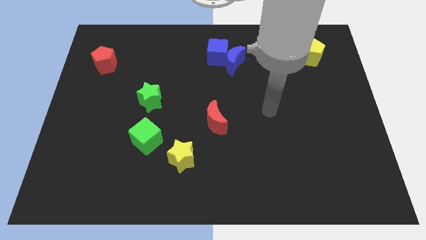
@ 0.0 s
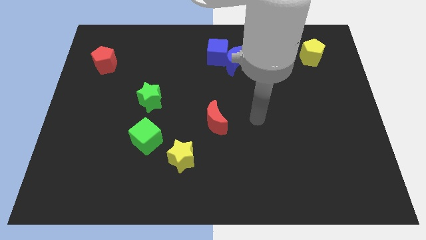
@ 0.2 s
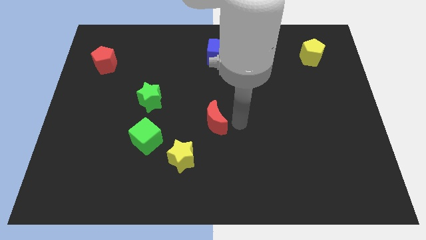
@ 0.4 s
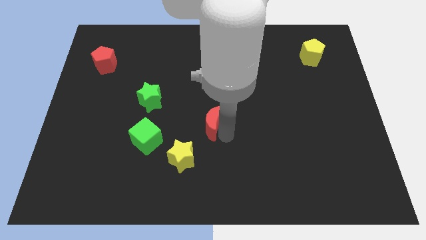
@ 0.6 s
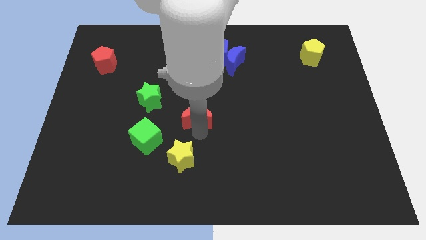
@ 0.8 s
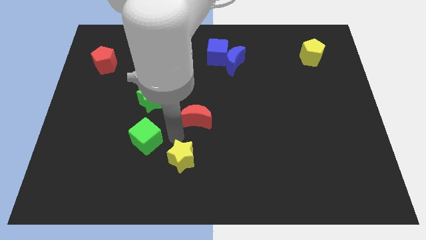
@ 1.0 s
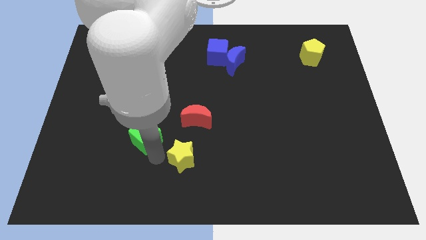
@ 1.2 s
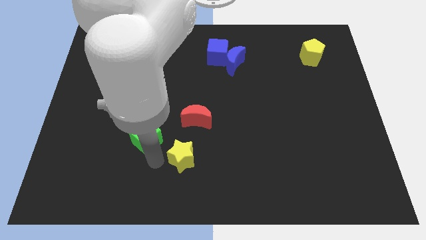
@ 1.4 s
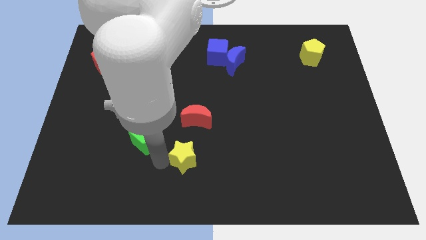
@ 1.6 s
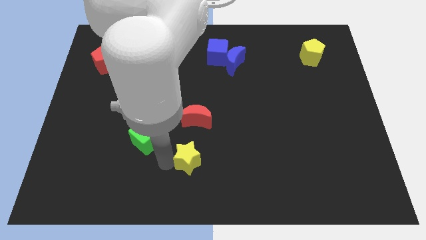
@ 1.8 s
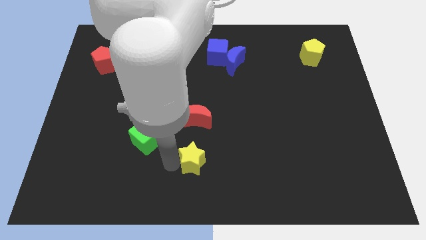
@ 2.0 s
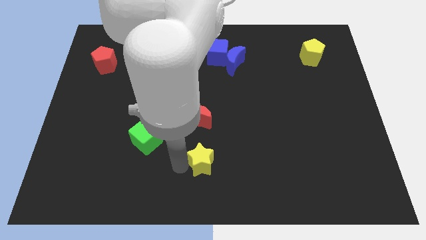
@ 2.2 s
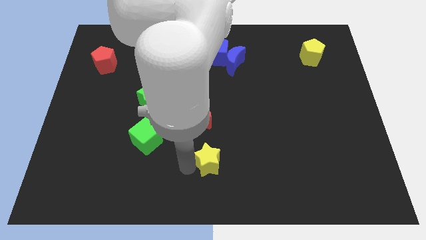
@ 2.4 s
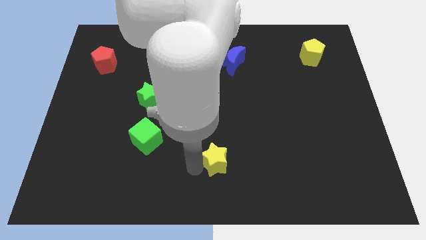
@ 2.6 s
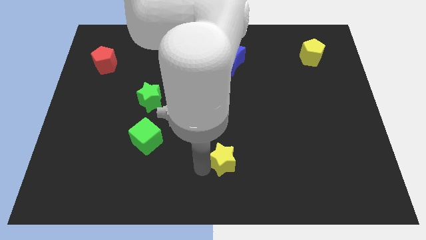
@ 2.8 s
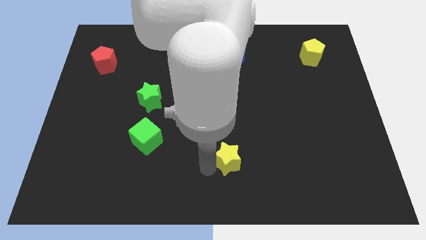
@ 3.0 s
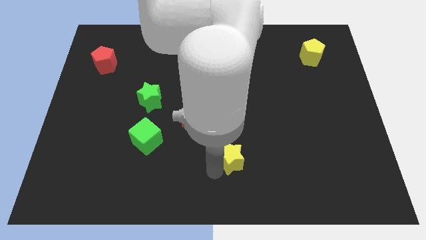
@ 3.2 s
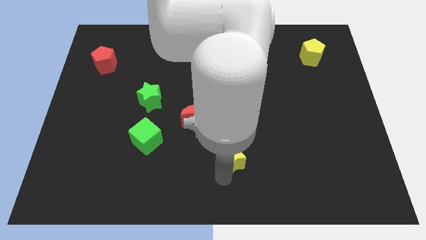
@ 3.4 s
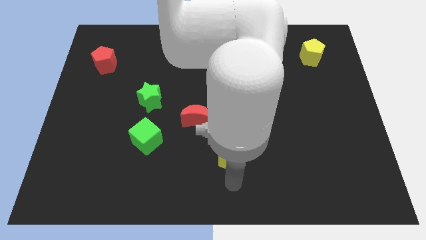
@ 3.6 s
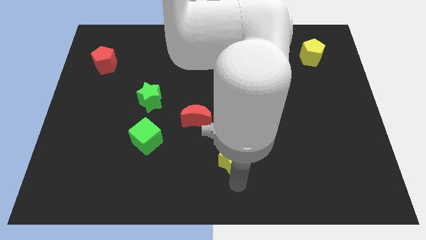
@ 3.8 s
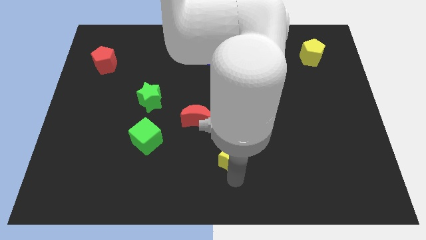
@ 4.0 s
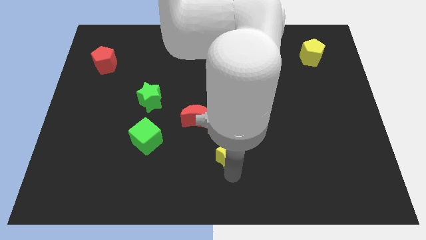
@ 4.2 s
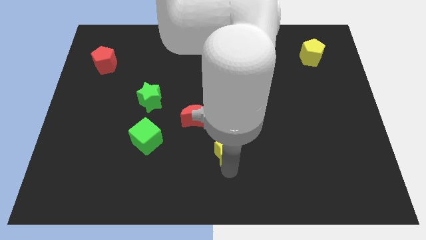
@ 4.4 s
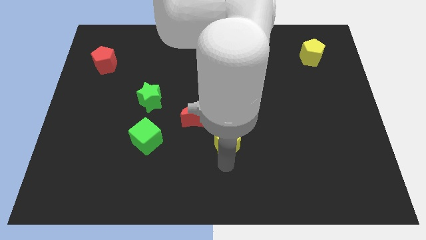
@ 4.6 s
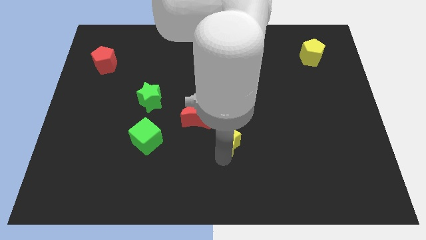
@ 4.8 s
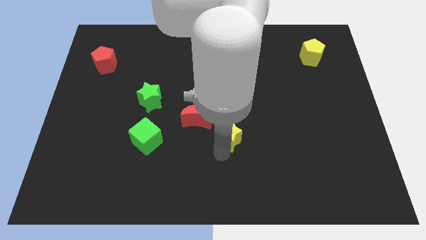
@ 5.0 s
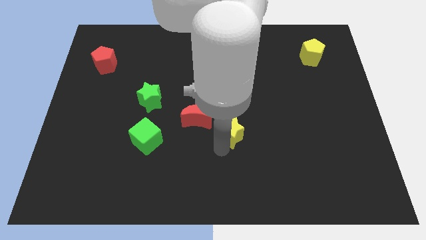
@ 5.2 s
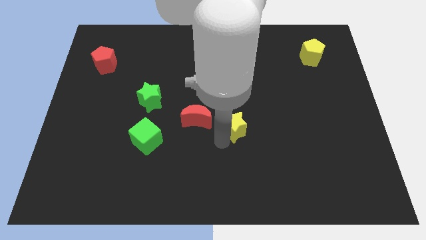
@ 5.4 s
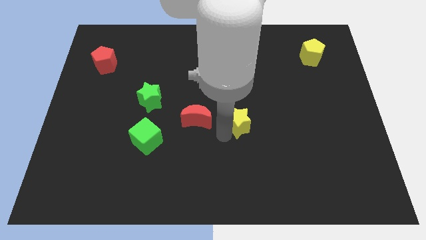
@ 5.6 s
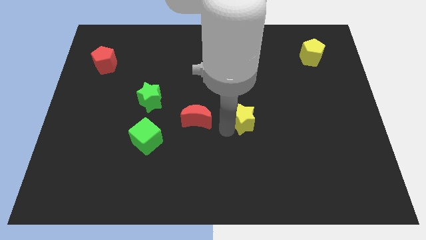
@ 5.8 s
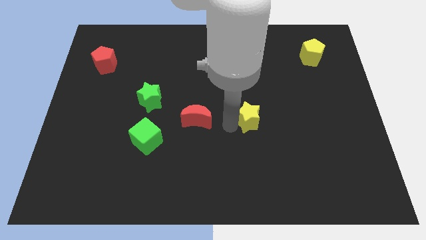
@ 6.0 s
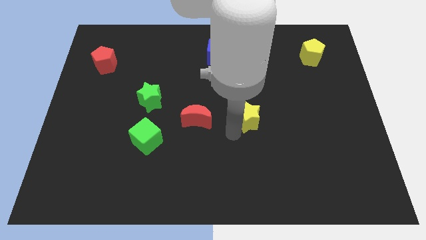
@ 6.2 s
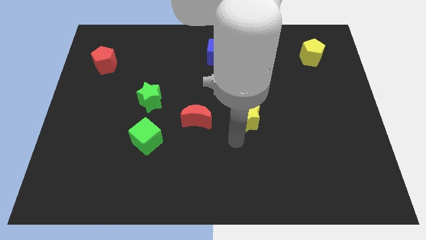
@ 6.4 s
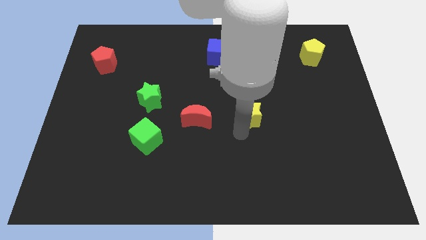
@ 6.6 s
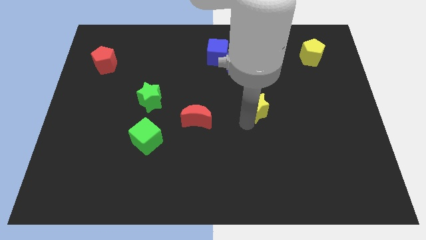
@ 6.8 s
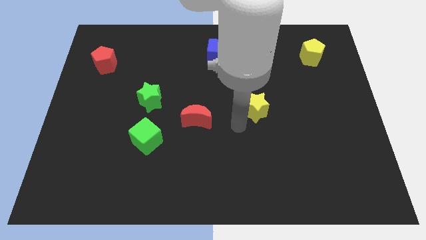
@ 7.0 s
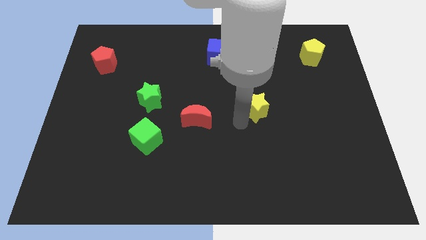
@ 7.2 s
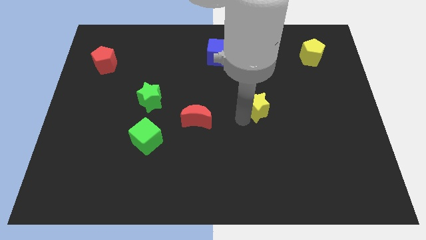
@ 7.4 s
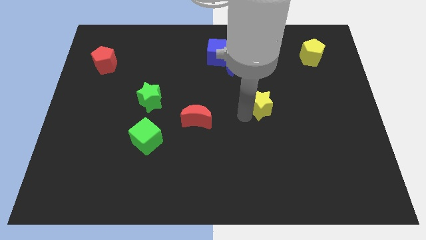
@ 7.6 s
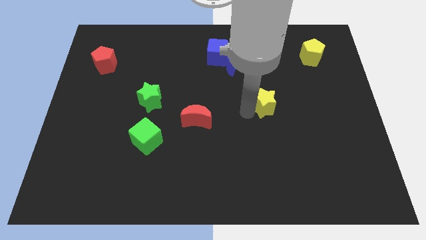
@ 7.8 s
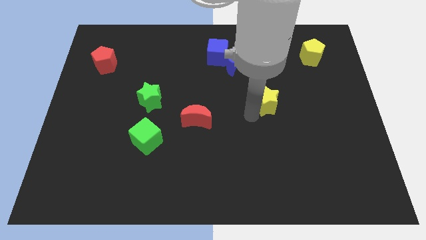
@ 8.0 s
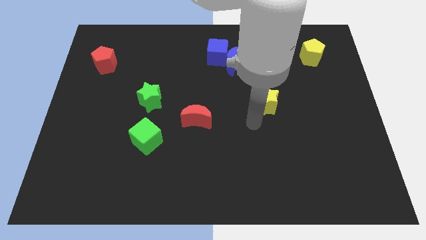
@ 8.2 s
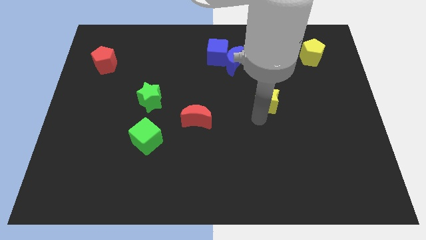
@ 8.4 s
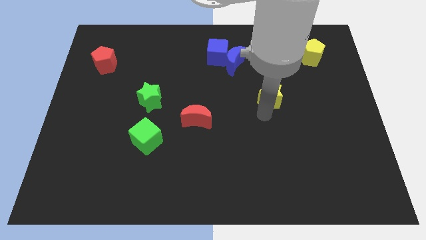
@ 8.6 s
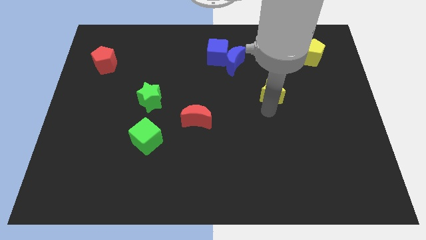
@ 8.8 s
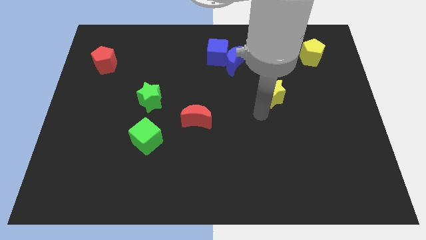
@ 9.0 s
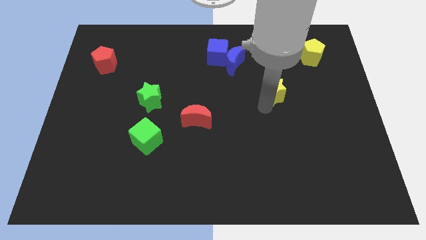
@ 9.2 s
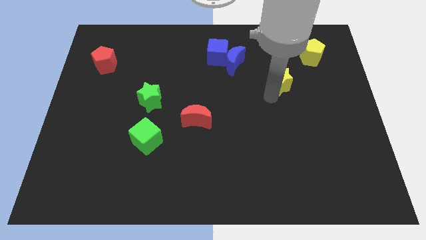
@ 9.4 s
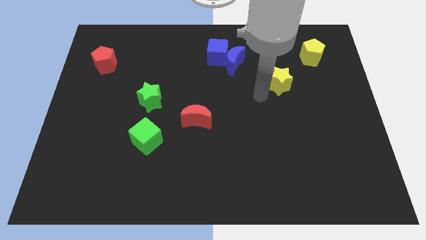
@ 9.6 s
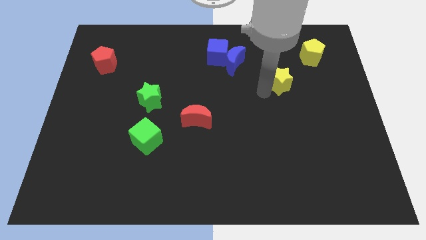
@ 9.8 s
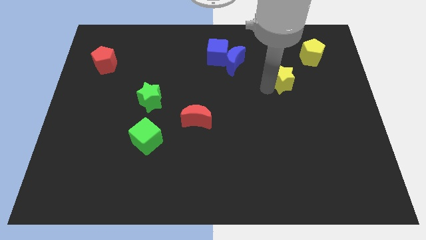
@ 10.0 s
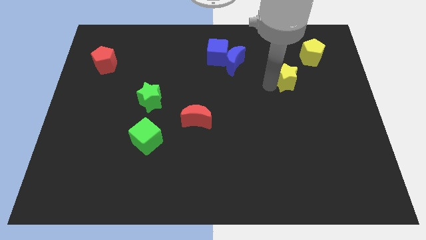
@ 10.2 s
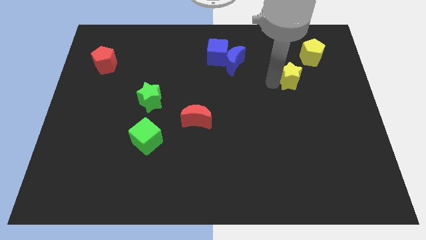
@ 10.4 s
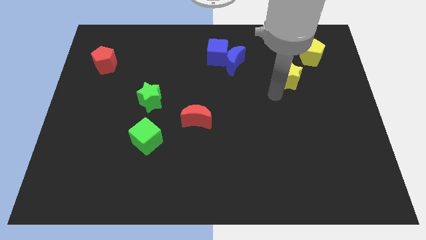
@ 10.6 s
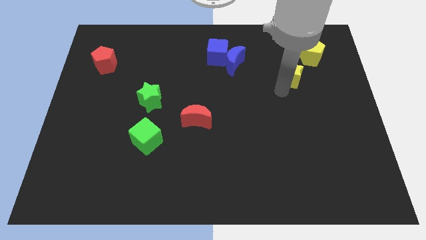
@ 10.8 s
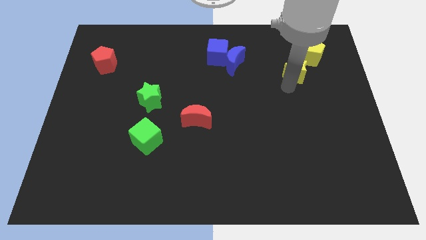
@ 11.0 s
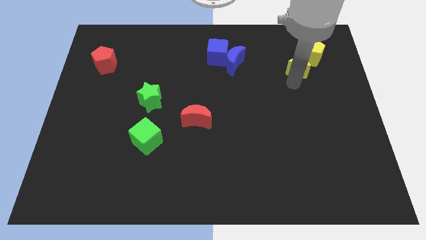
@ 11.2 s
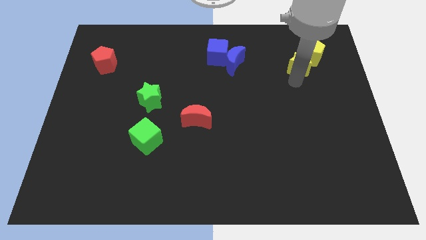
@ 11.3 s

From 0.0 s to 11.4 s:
move the yellow star towards the yellow pentagon

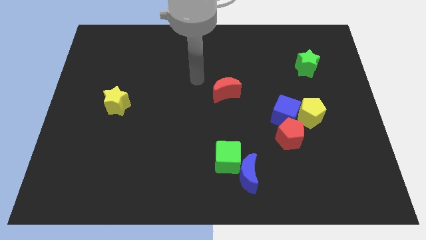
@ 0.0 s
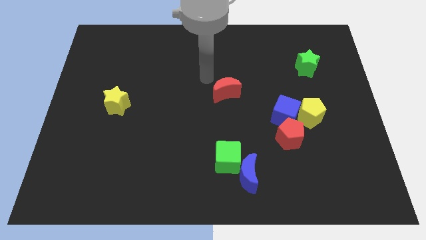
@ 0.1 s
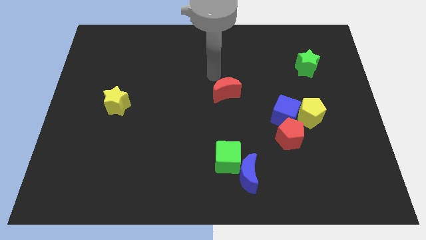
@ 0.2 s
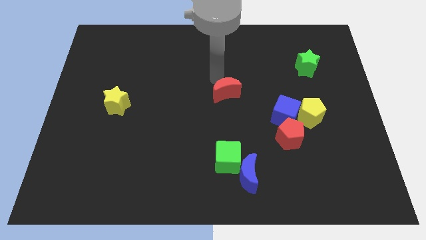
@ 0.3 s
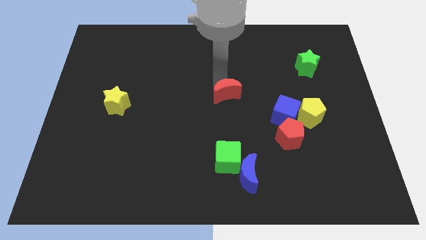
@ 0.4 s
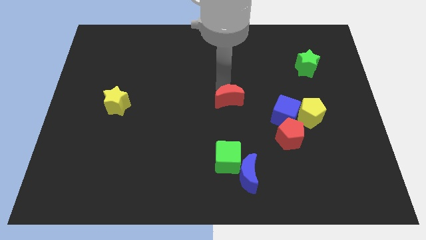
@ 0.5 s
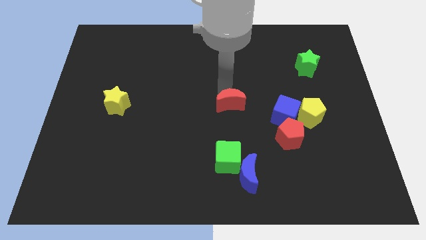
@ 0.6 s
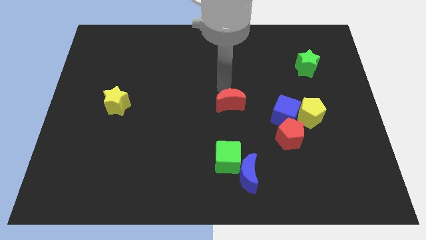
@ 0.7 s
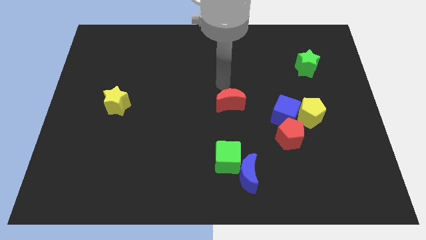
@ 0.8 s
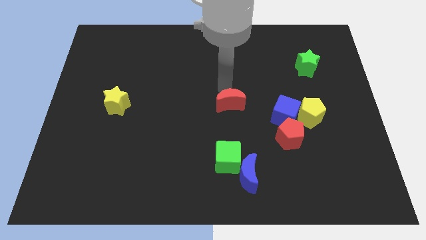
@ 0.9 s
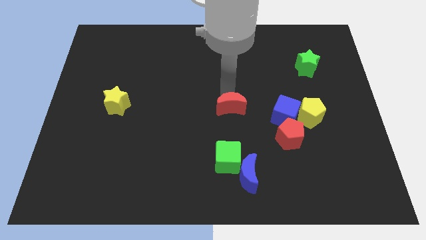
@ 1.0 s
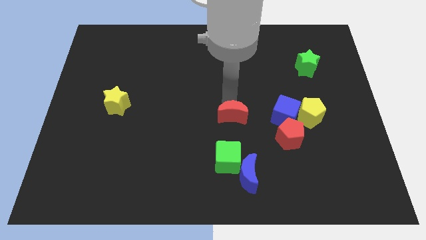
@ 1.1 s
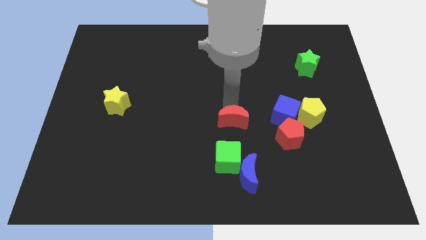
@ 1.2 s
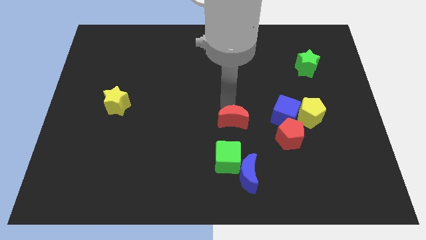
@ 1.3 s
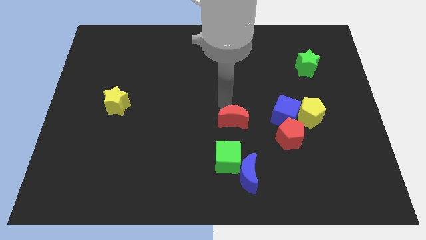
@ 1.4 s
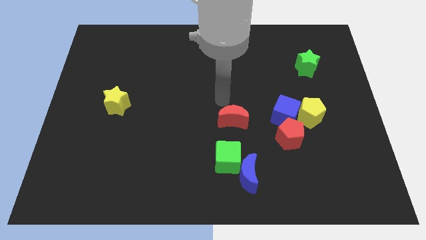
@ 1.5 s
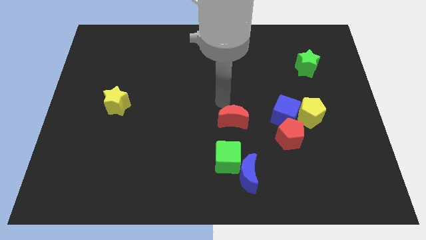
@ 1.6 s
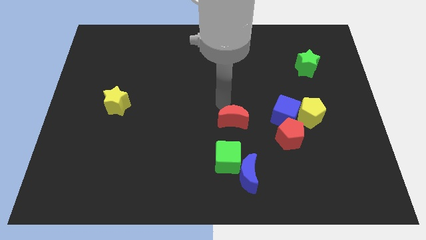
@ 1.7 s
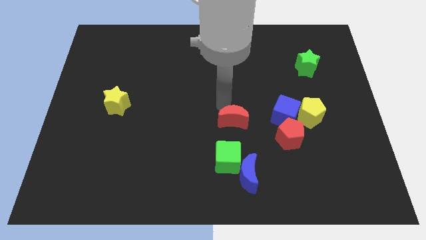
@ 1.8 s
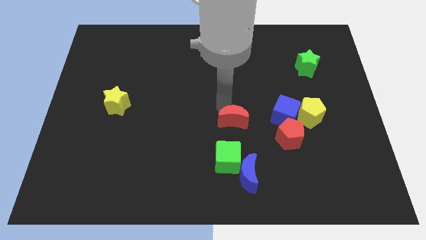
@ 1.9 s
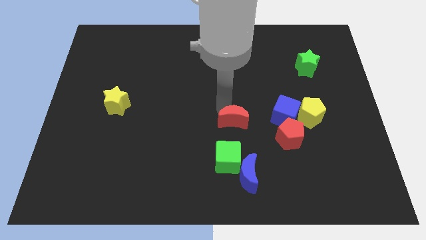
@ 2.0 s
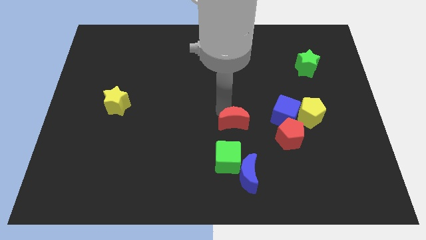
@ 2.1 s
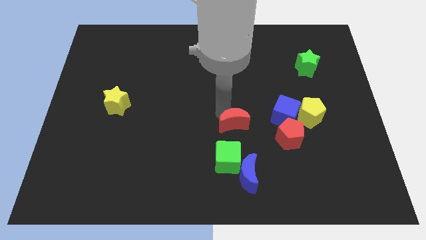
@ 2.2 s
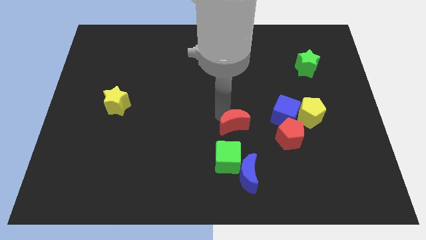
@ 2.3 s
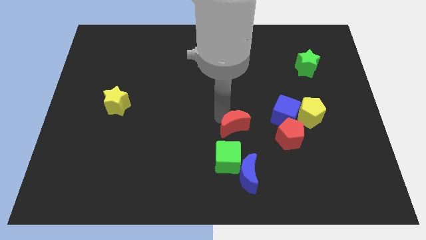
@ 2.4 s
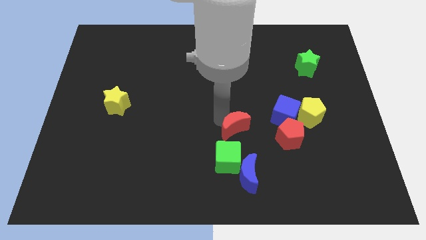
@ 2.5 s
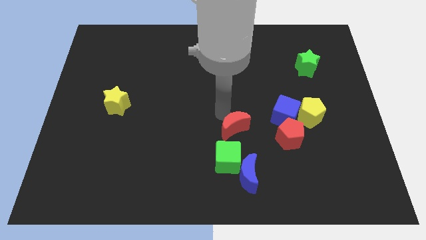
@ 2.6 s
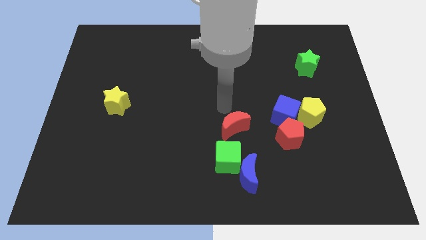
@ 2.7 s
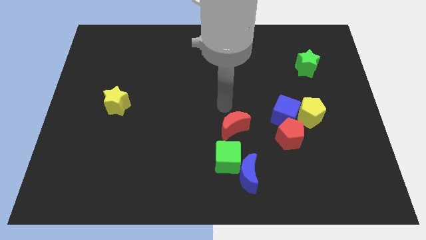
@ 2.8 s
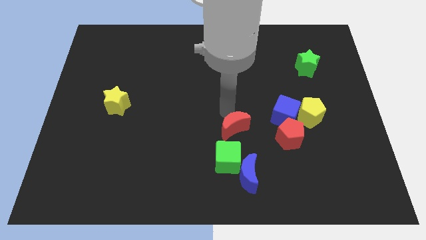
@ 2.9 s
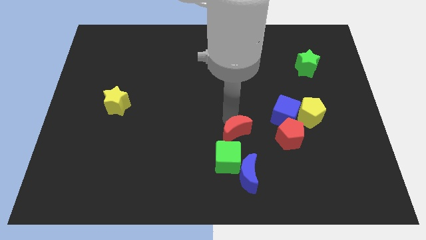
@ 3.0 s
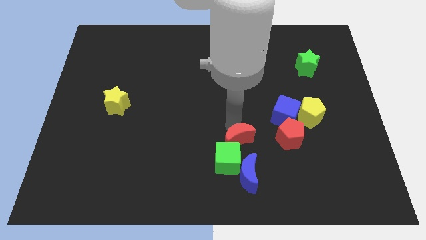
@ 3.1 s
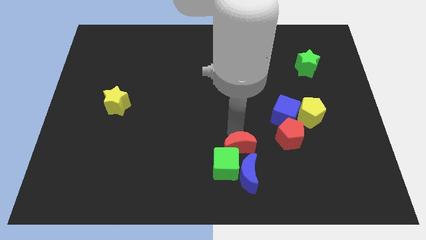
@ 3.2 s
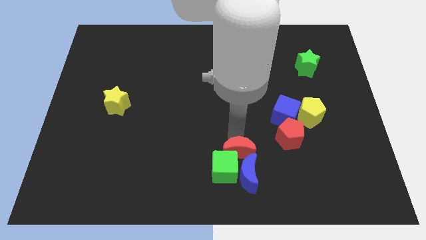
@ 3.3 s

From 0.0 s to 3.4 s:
slide the red moon next to the blue moon
